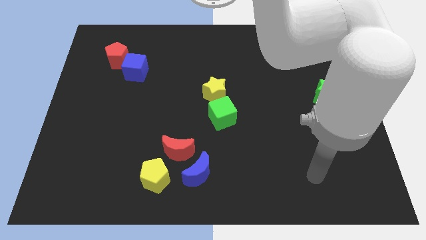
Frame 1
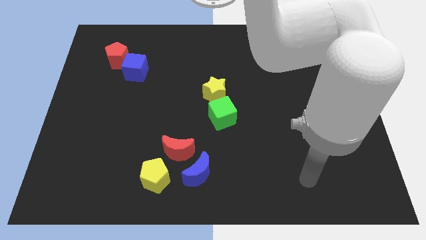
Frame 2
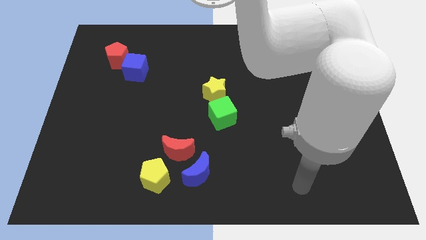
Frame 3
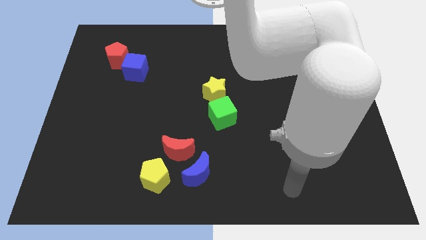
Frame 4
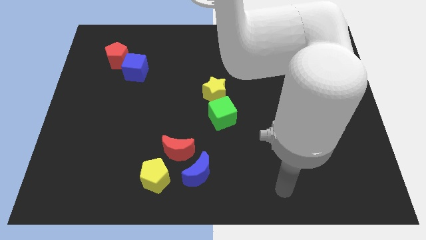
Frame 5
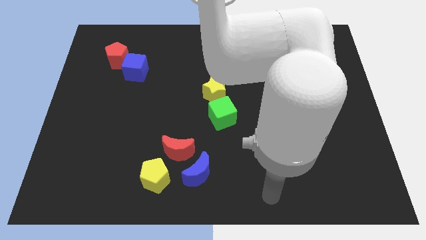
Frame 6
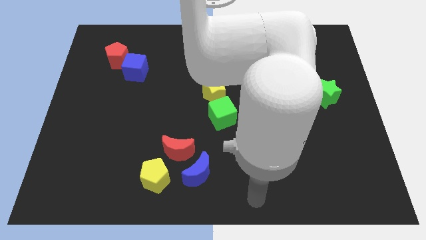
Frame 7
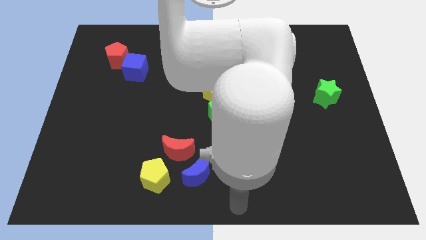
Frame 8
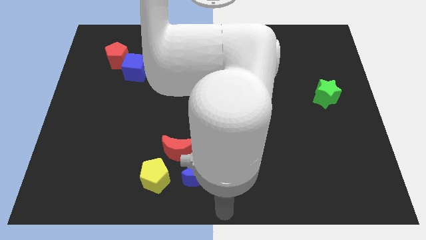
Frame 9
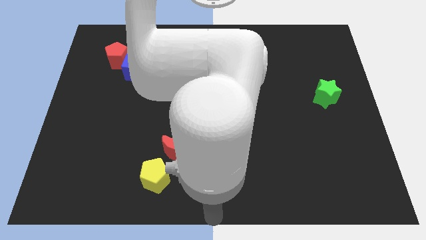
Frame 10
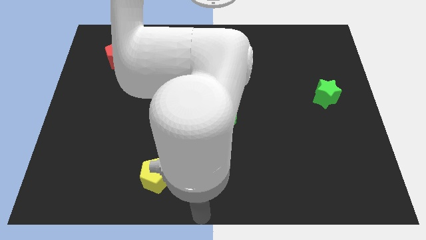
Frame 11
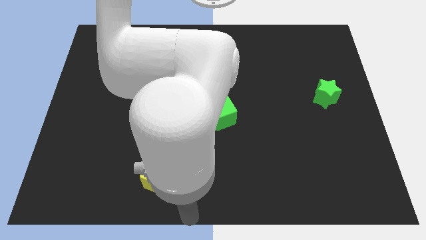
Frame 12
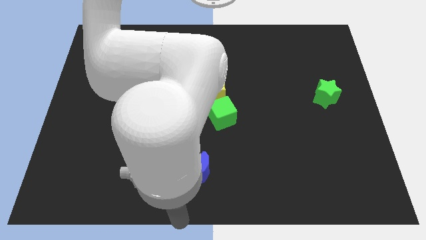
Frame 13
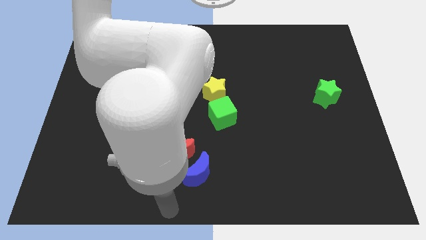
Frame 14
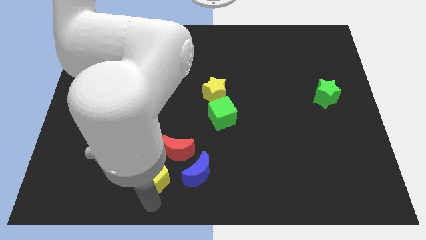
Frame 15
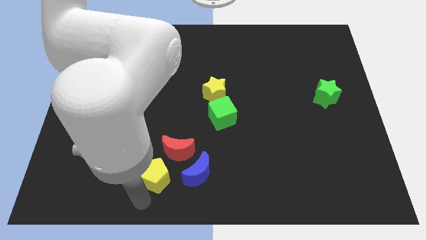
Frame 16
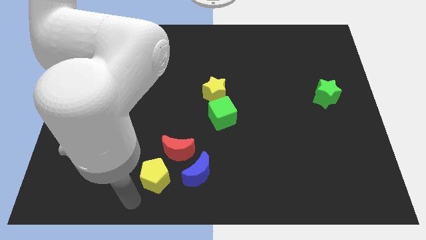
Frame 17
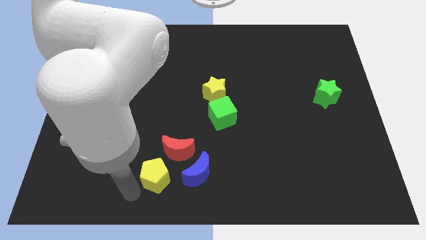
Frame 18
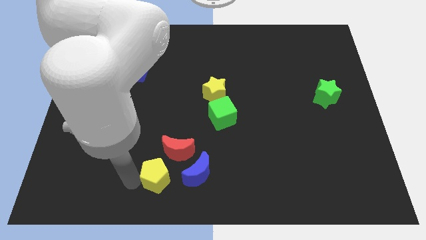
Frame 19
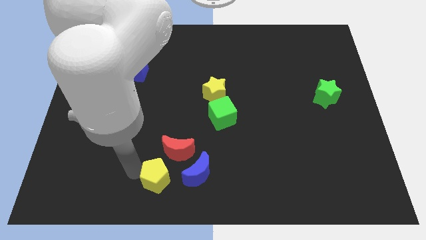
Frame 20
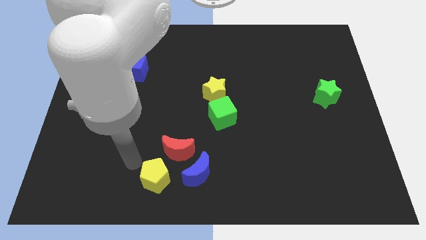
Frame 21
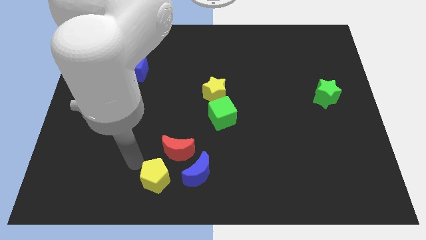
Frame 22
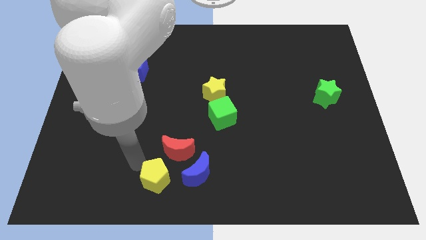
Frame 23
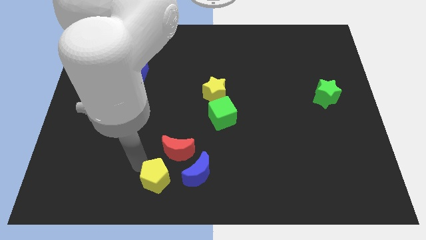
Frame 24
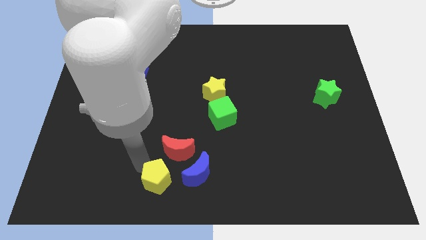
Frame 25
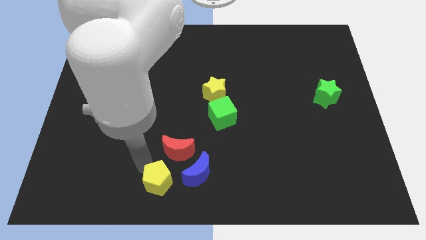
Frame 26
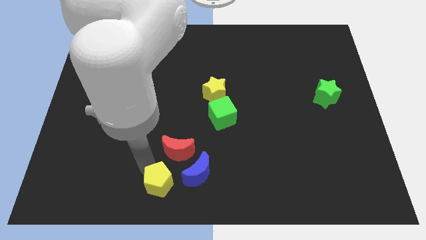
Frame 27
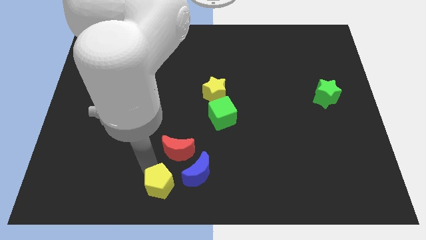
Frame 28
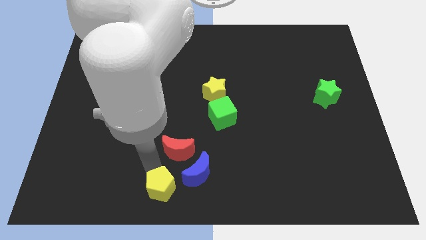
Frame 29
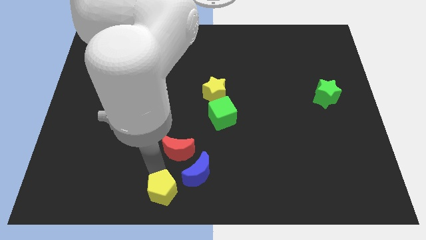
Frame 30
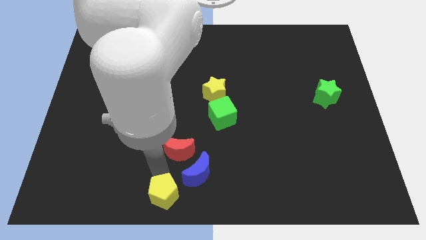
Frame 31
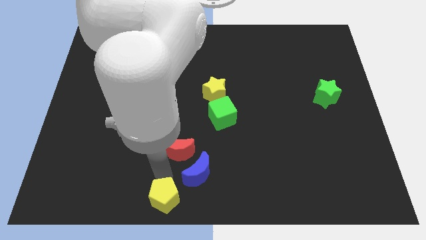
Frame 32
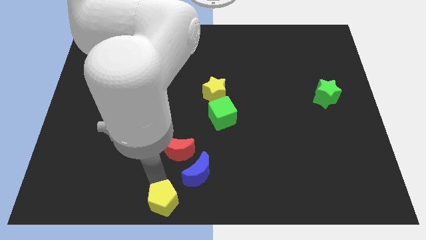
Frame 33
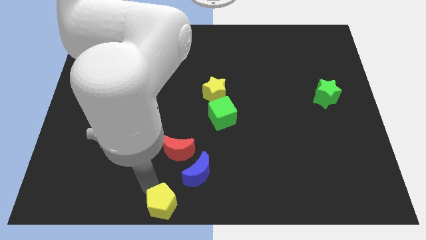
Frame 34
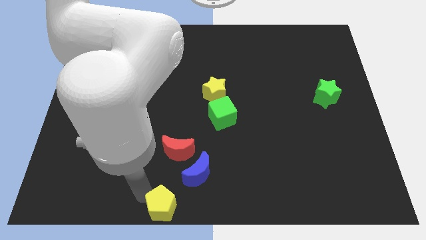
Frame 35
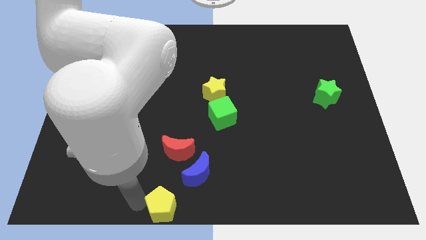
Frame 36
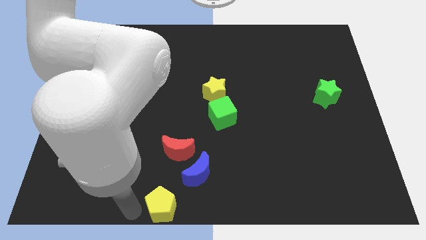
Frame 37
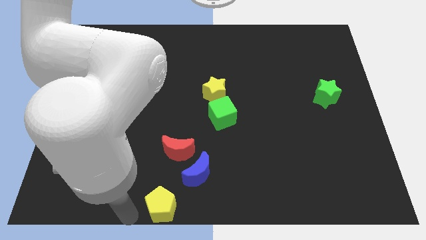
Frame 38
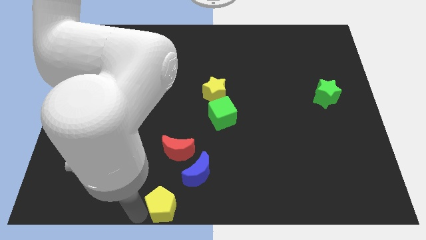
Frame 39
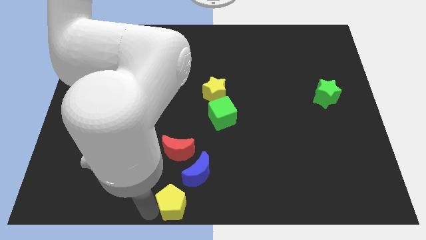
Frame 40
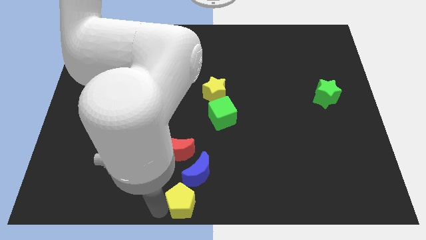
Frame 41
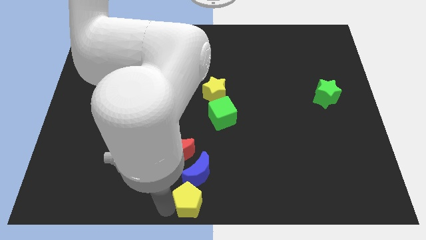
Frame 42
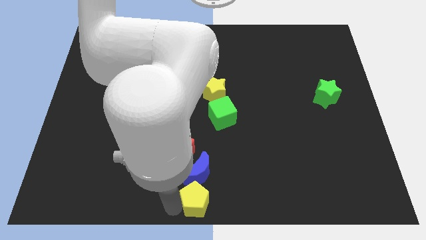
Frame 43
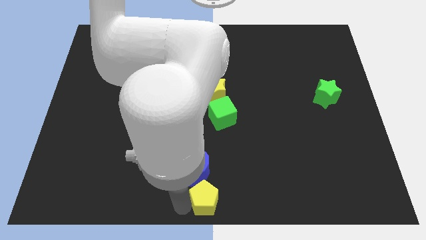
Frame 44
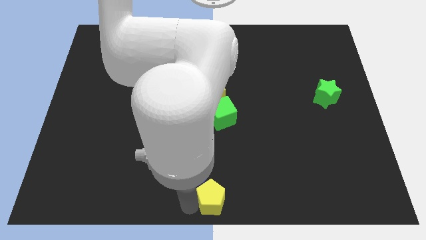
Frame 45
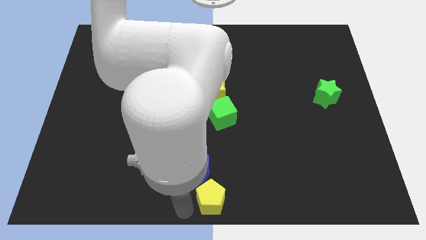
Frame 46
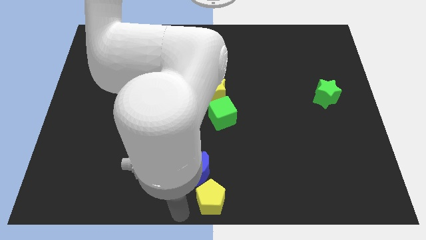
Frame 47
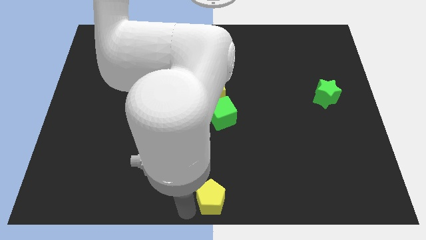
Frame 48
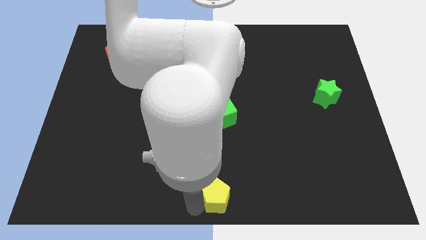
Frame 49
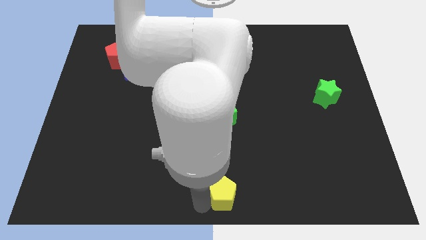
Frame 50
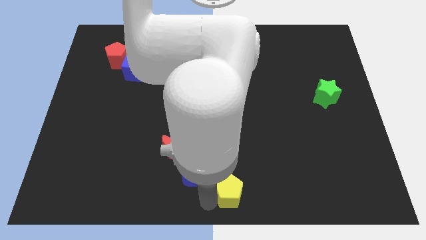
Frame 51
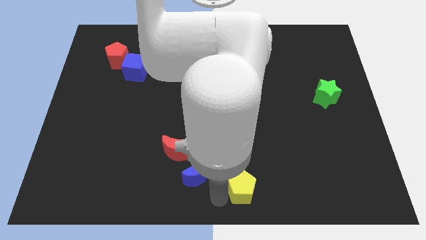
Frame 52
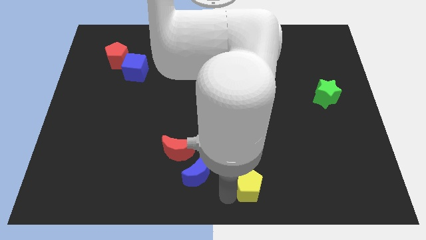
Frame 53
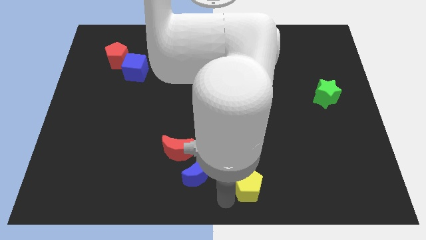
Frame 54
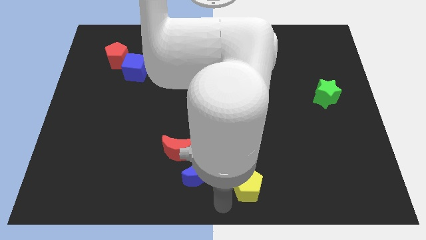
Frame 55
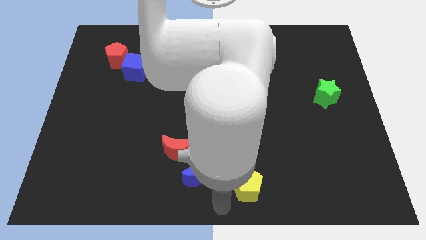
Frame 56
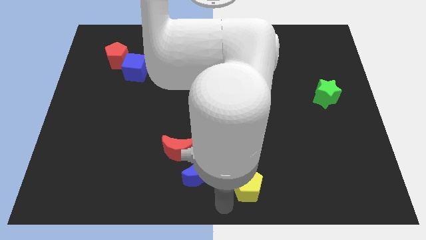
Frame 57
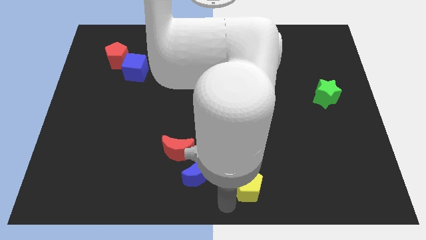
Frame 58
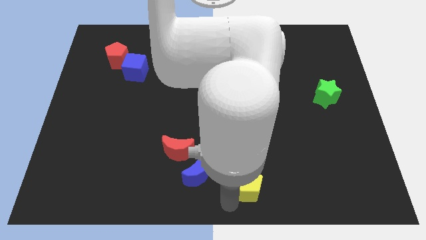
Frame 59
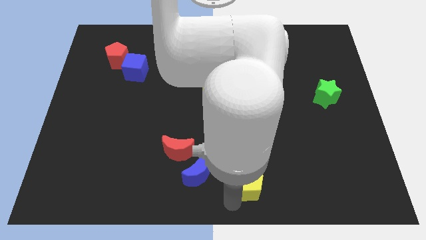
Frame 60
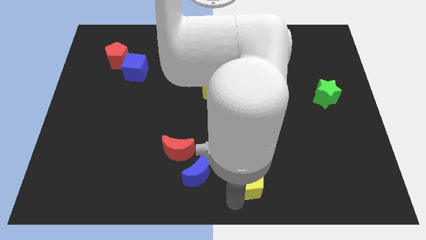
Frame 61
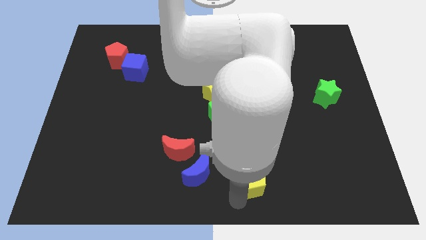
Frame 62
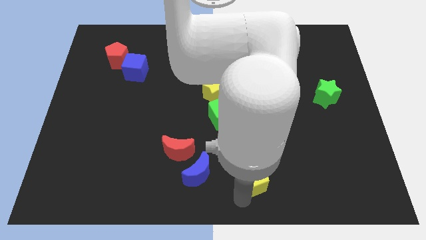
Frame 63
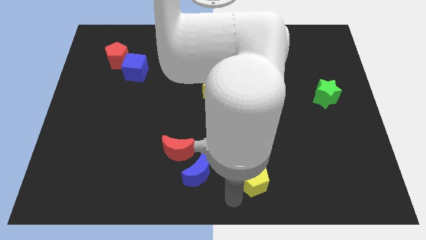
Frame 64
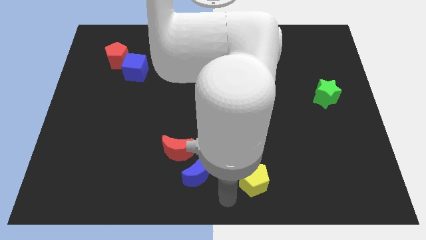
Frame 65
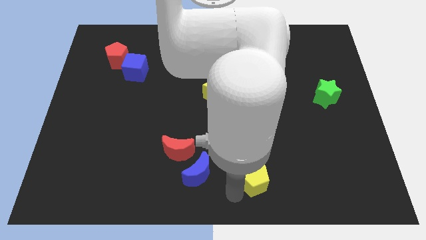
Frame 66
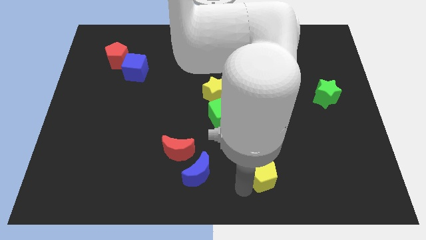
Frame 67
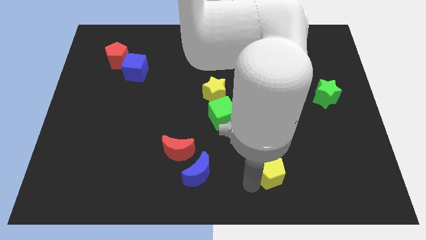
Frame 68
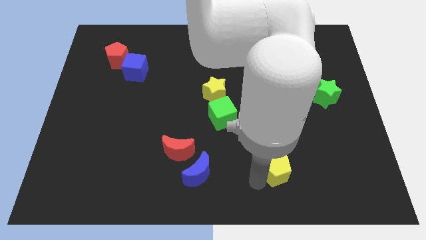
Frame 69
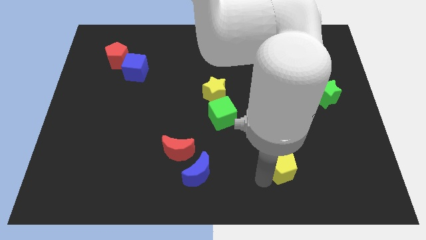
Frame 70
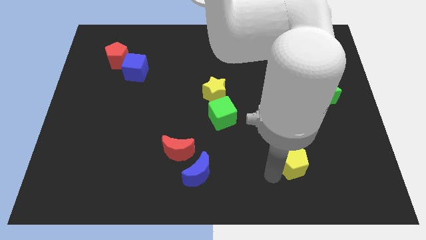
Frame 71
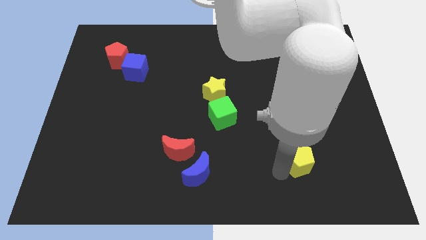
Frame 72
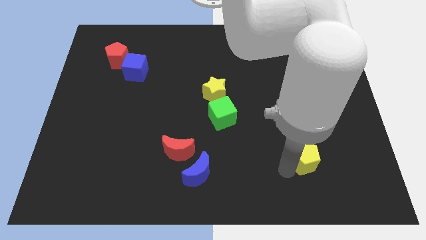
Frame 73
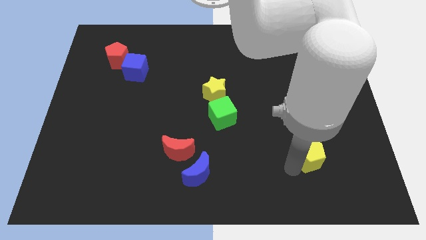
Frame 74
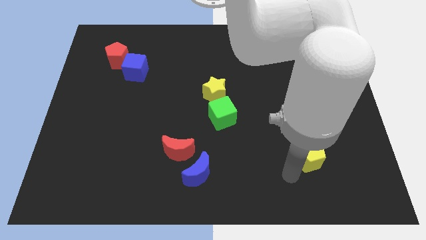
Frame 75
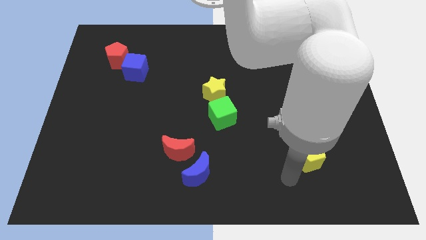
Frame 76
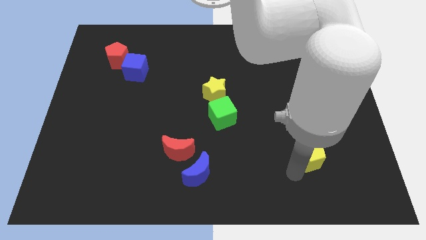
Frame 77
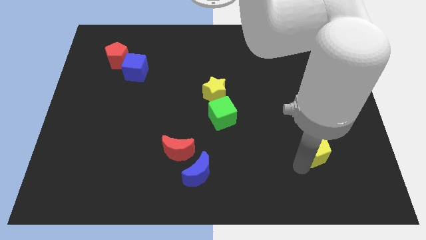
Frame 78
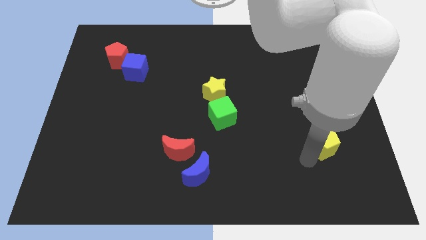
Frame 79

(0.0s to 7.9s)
slide the yellow pentagon to the bottom side of the green star
